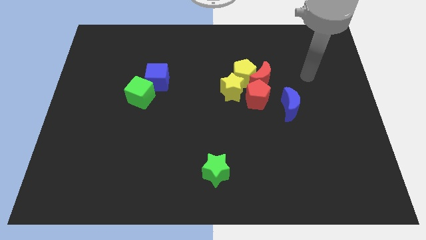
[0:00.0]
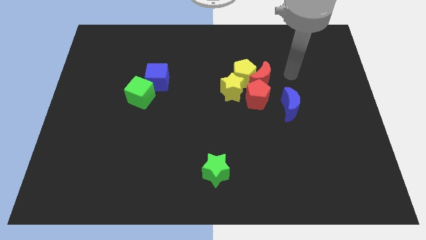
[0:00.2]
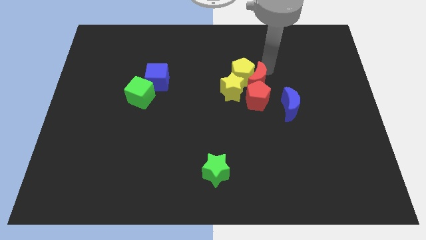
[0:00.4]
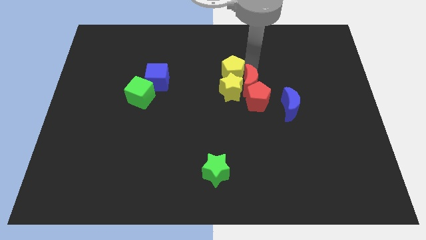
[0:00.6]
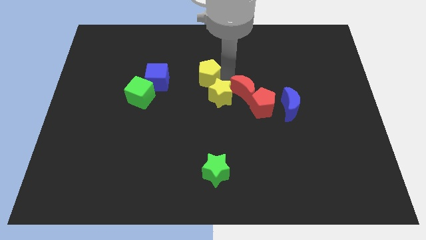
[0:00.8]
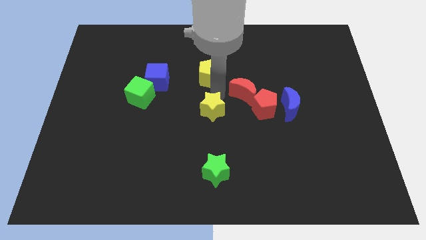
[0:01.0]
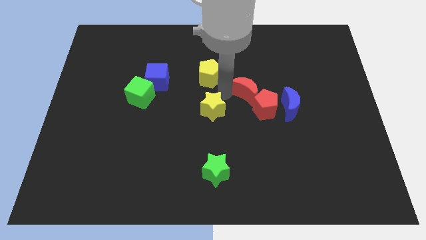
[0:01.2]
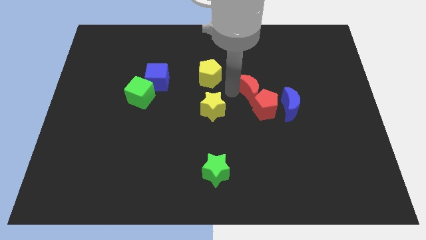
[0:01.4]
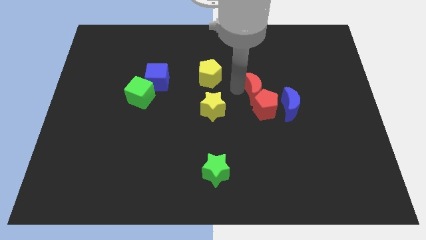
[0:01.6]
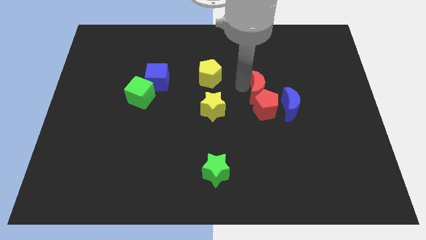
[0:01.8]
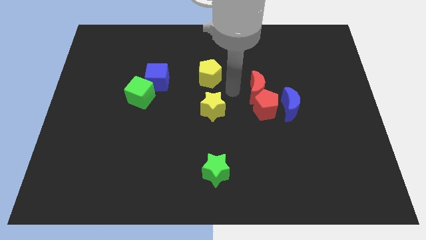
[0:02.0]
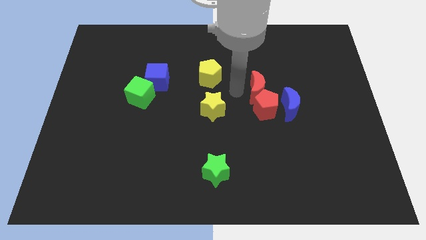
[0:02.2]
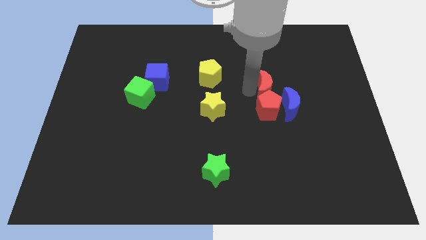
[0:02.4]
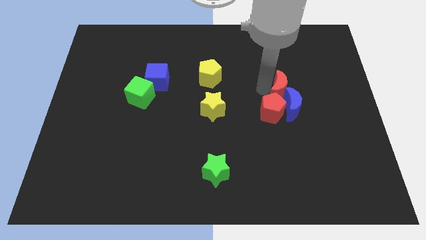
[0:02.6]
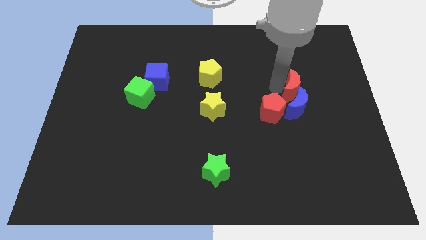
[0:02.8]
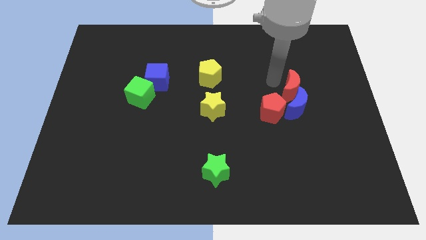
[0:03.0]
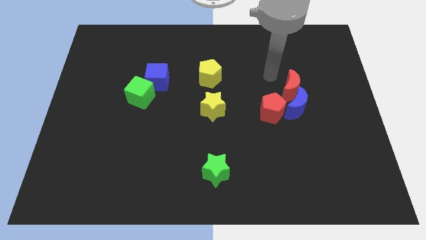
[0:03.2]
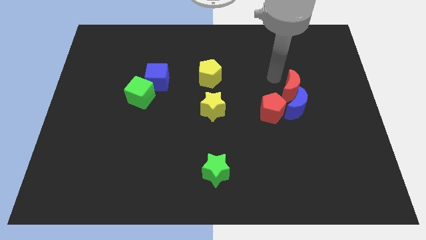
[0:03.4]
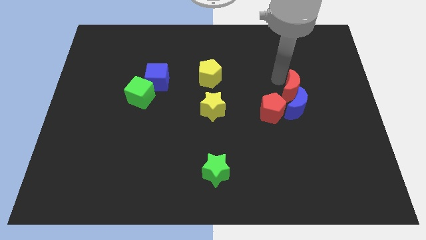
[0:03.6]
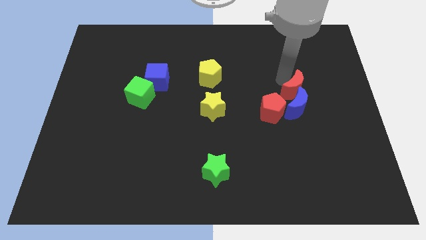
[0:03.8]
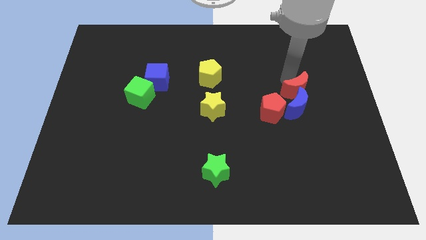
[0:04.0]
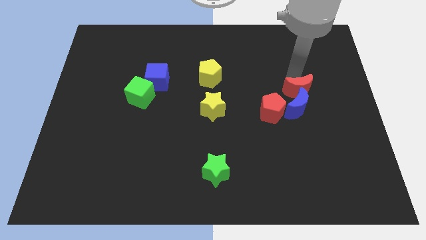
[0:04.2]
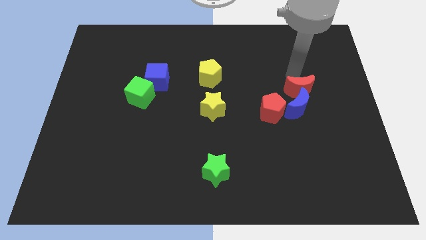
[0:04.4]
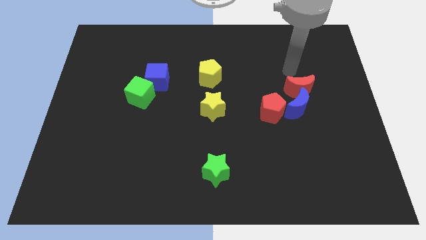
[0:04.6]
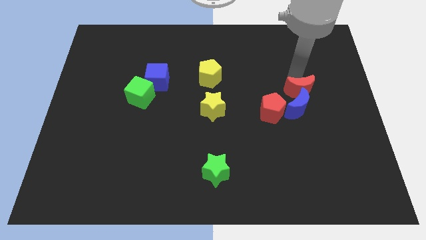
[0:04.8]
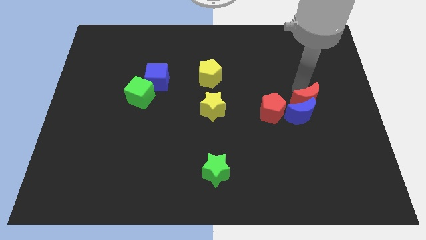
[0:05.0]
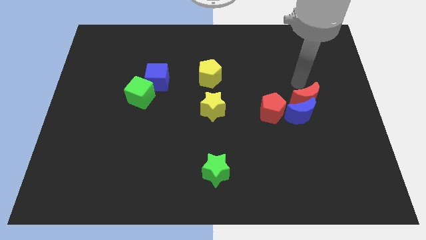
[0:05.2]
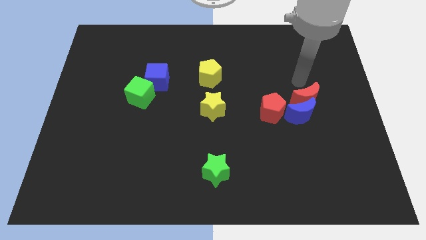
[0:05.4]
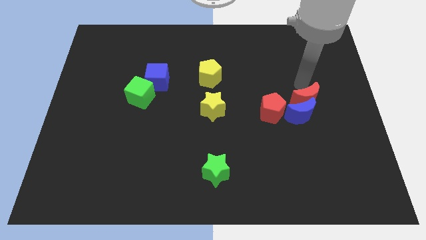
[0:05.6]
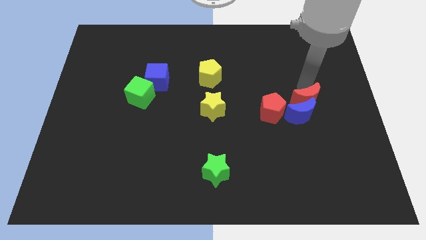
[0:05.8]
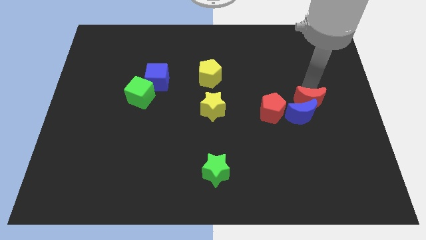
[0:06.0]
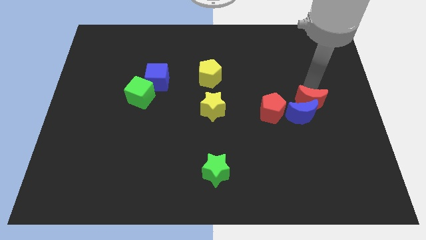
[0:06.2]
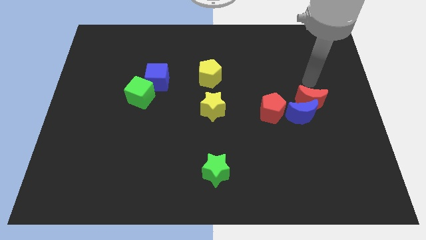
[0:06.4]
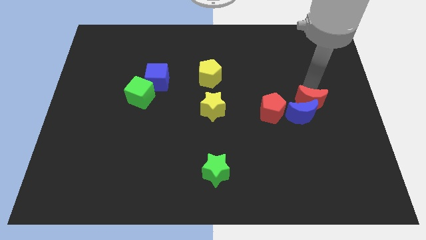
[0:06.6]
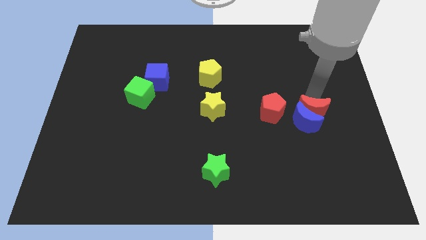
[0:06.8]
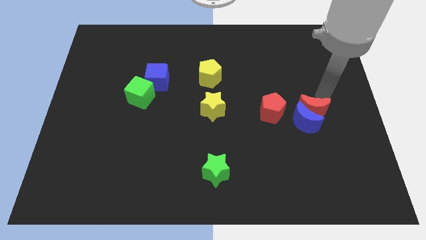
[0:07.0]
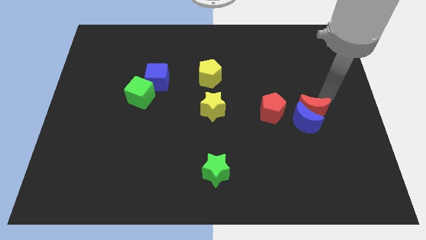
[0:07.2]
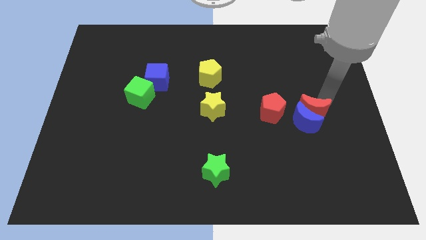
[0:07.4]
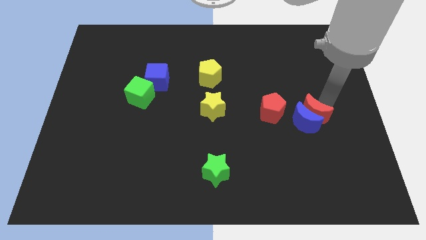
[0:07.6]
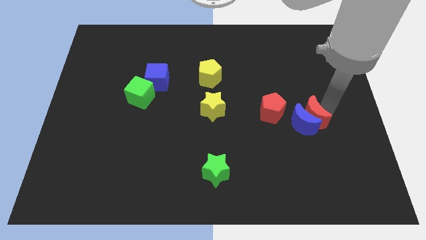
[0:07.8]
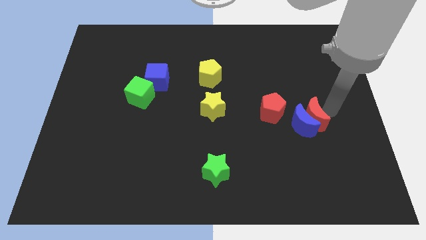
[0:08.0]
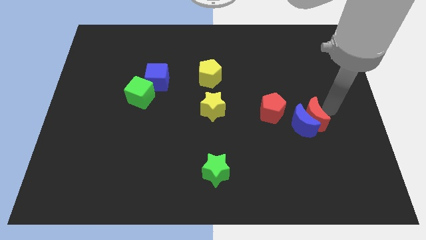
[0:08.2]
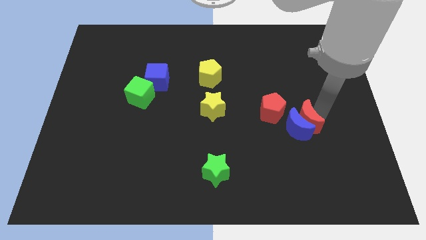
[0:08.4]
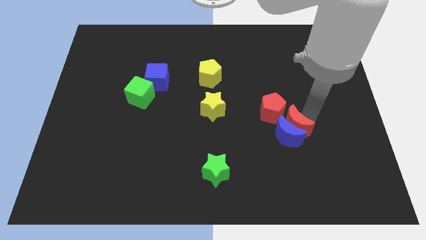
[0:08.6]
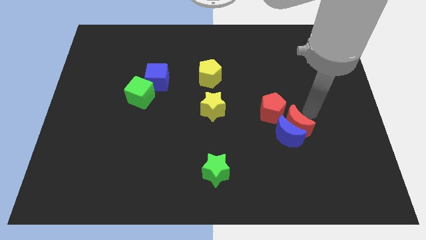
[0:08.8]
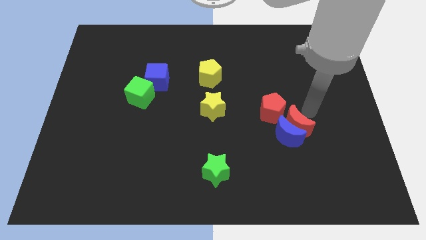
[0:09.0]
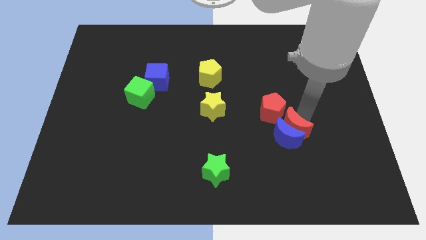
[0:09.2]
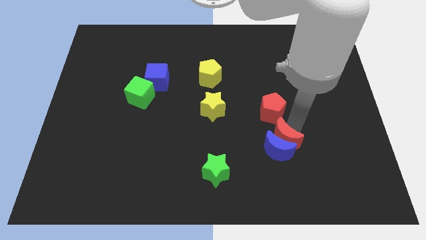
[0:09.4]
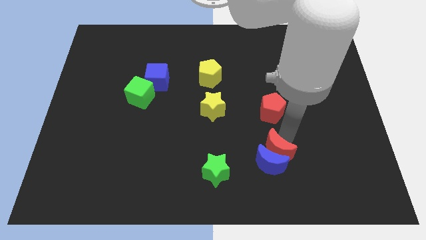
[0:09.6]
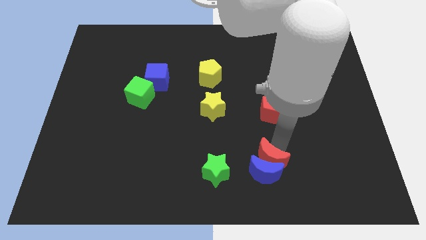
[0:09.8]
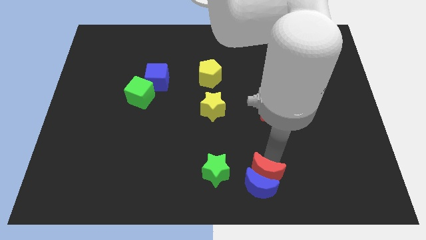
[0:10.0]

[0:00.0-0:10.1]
push the red moon to the bottom

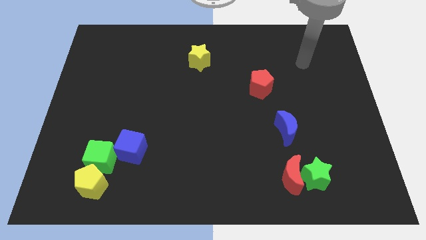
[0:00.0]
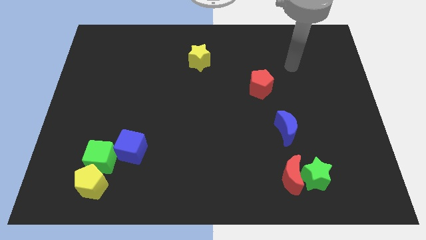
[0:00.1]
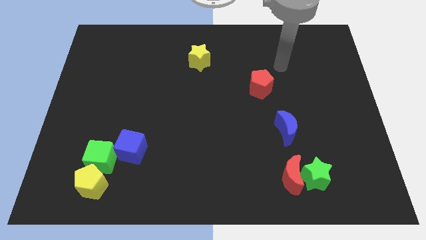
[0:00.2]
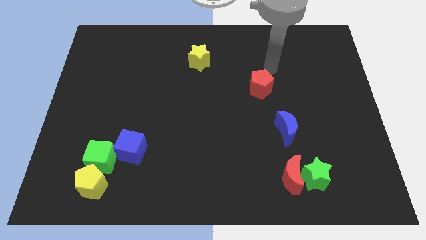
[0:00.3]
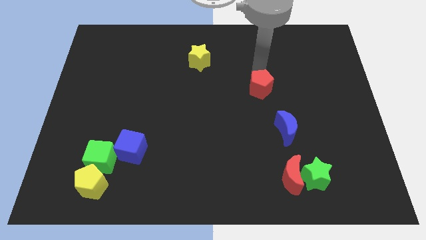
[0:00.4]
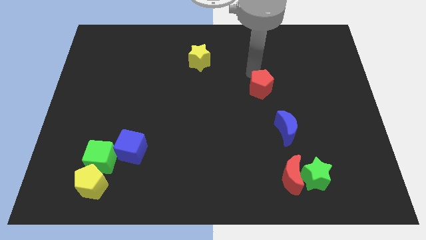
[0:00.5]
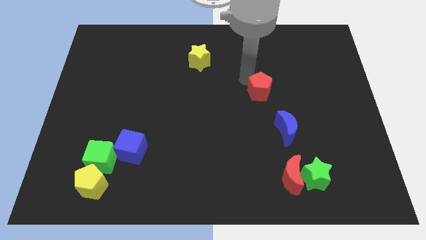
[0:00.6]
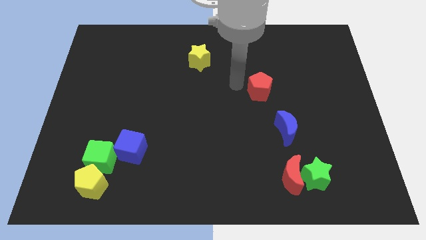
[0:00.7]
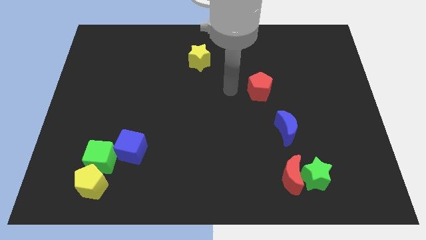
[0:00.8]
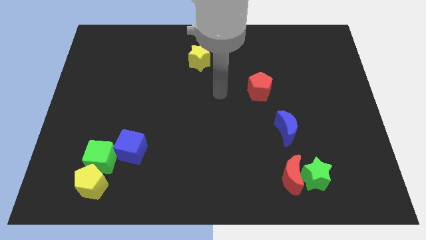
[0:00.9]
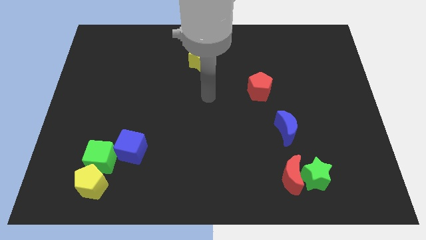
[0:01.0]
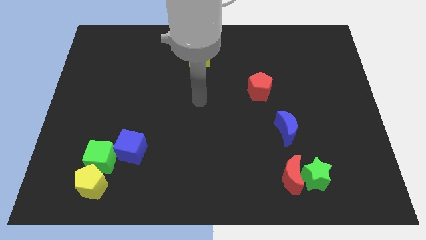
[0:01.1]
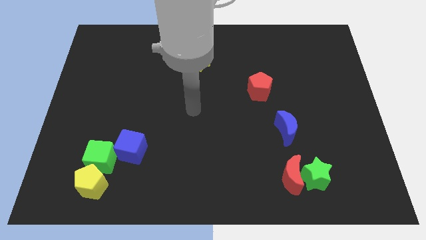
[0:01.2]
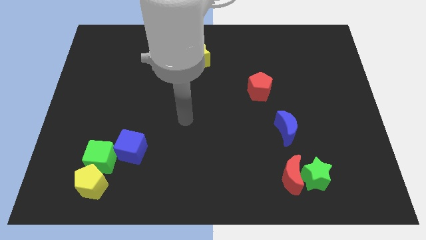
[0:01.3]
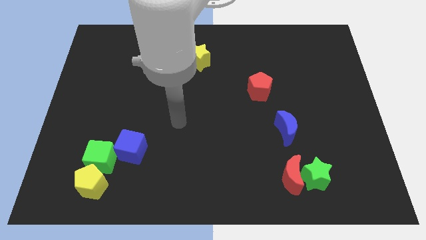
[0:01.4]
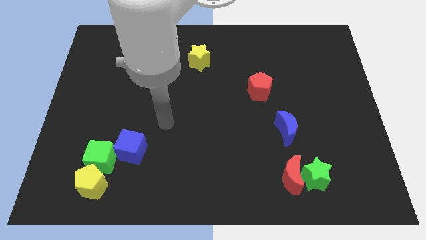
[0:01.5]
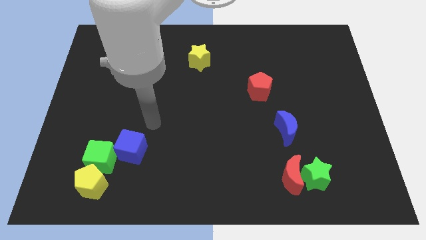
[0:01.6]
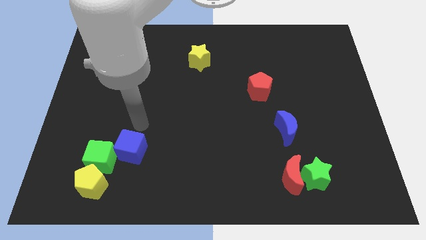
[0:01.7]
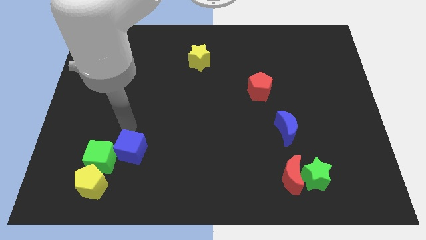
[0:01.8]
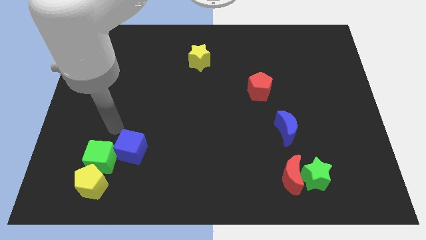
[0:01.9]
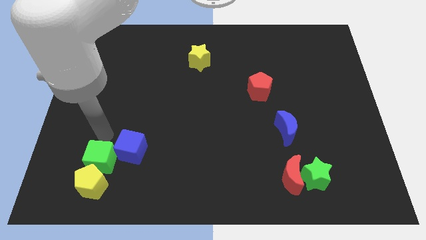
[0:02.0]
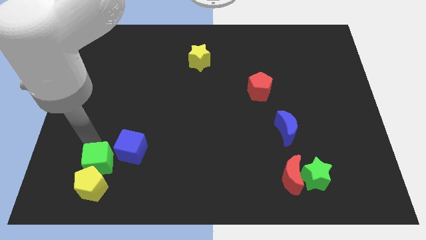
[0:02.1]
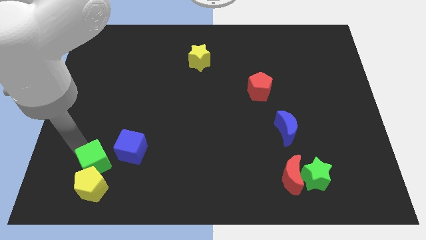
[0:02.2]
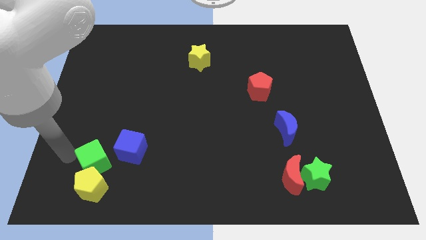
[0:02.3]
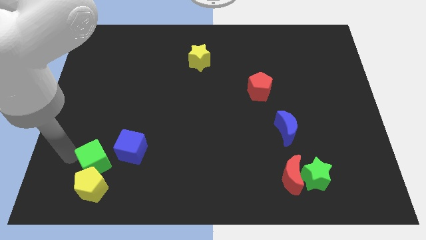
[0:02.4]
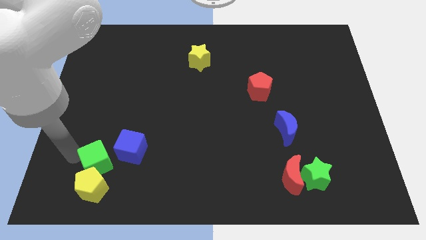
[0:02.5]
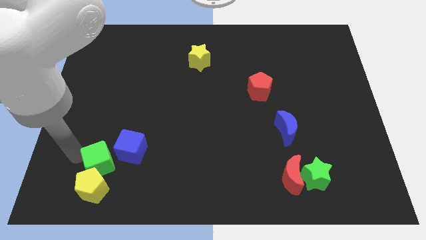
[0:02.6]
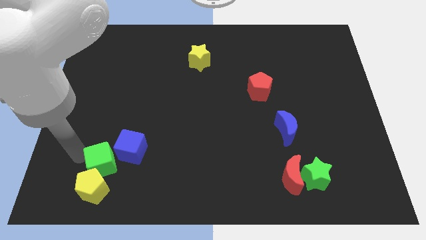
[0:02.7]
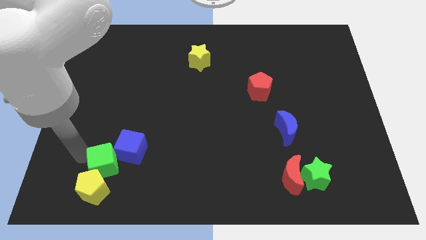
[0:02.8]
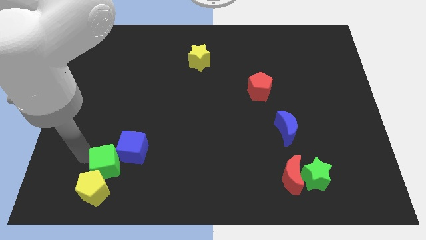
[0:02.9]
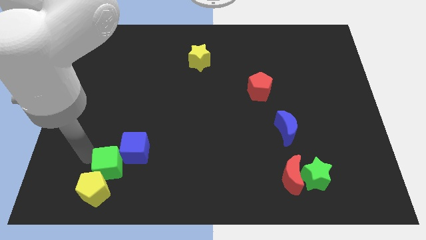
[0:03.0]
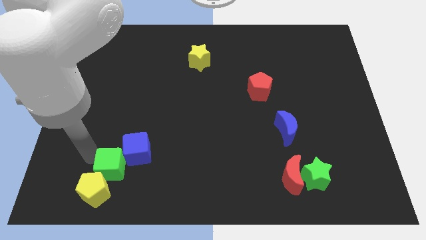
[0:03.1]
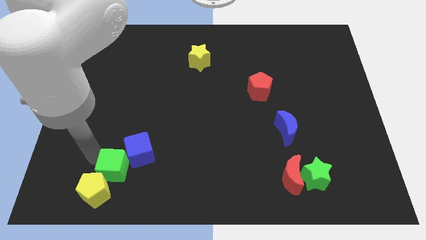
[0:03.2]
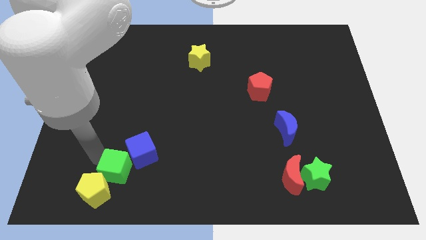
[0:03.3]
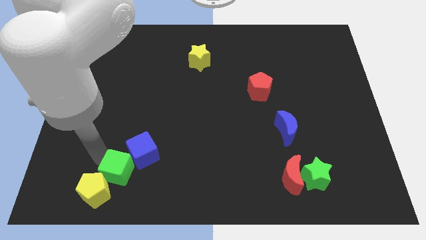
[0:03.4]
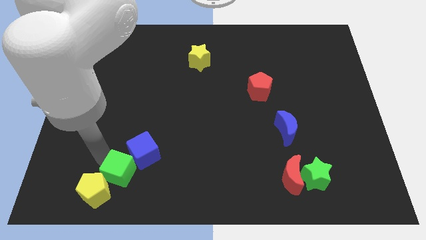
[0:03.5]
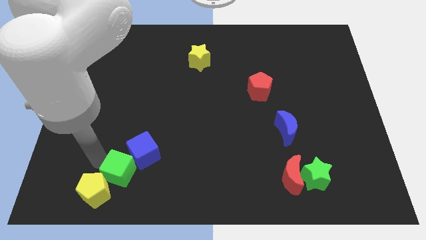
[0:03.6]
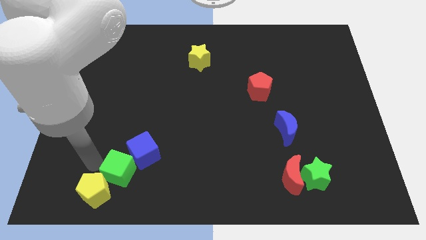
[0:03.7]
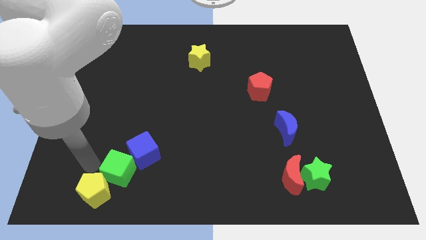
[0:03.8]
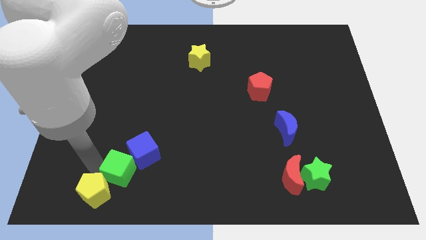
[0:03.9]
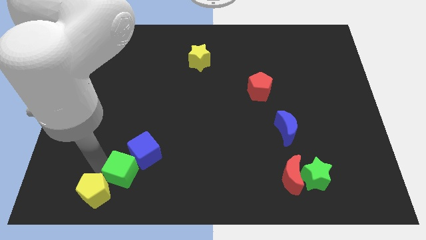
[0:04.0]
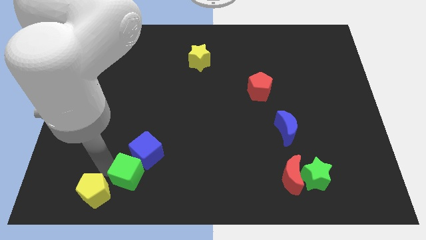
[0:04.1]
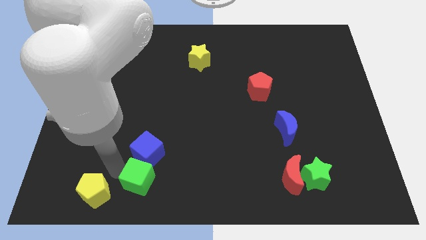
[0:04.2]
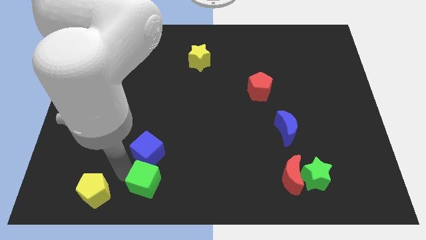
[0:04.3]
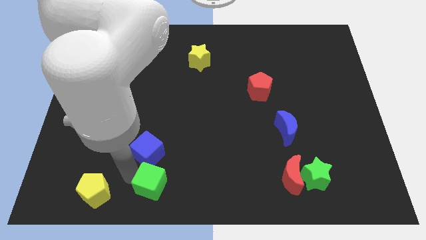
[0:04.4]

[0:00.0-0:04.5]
push the green cube to the bottom
